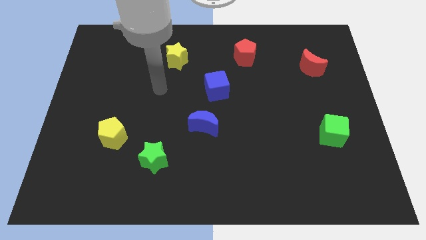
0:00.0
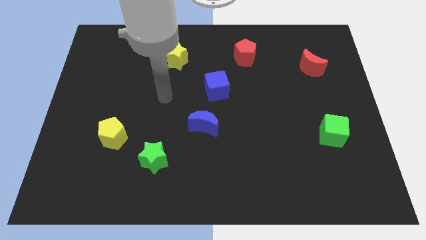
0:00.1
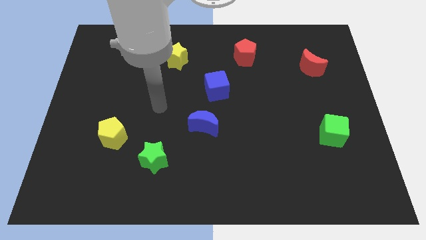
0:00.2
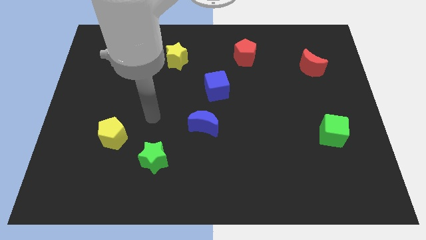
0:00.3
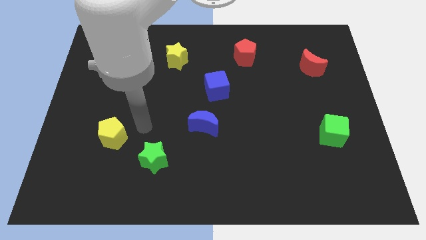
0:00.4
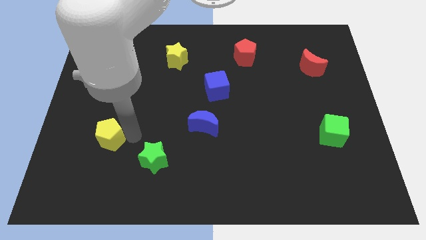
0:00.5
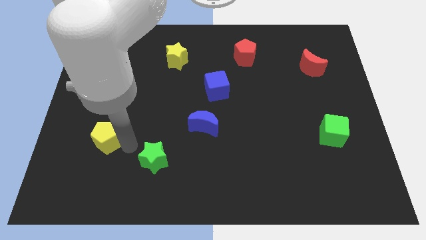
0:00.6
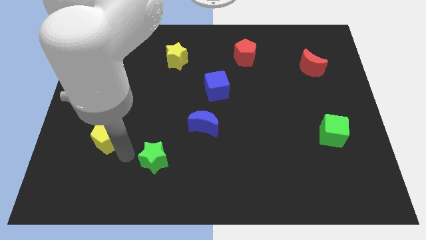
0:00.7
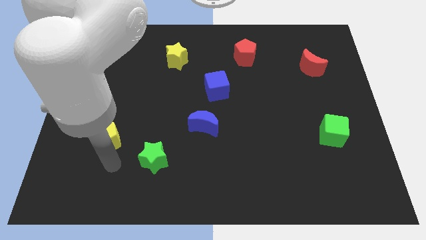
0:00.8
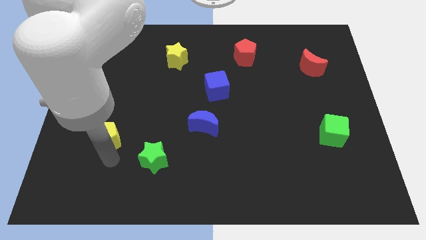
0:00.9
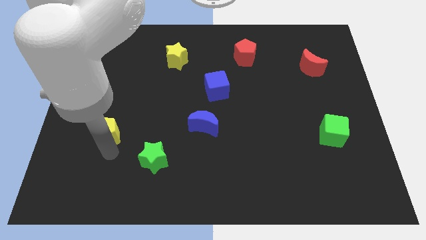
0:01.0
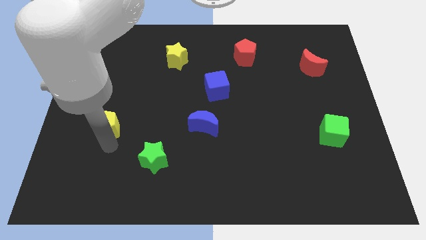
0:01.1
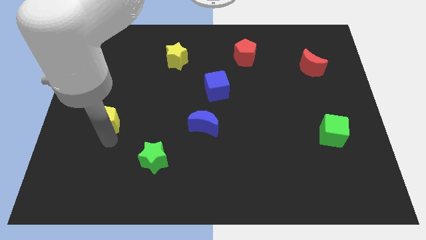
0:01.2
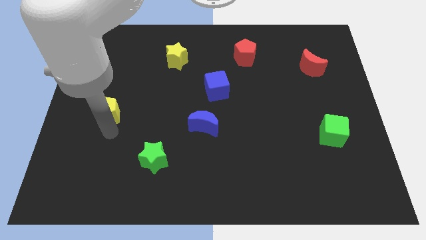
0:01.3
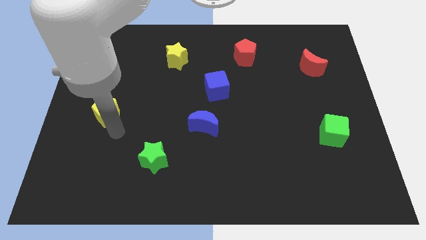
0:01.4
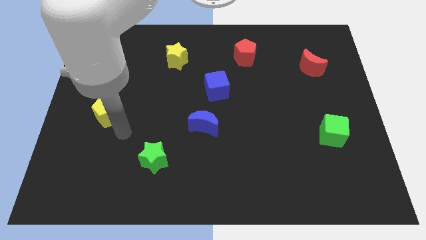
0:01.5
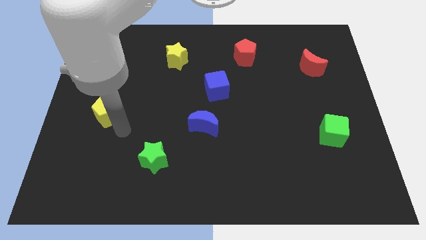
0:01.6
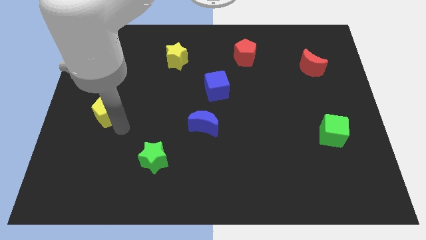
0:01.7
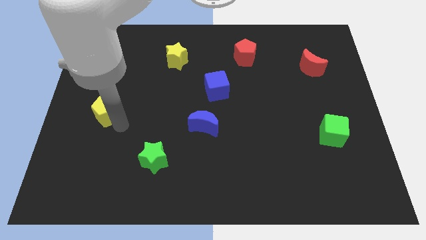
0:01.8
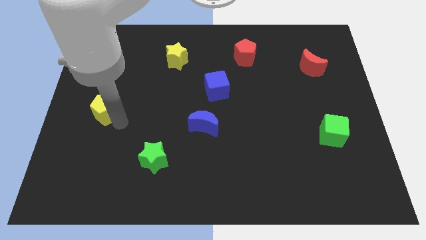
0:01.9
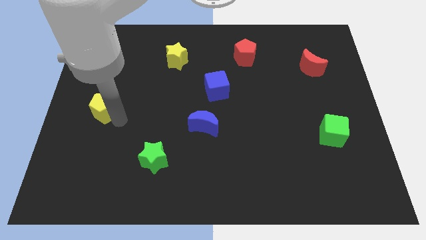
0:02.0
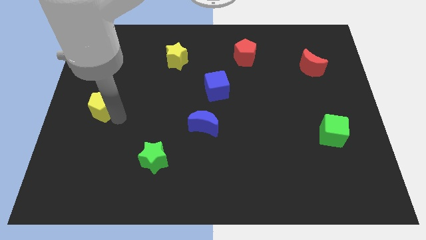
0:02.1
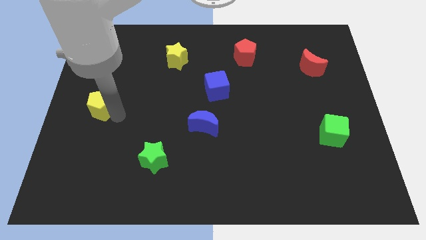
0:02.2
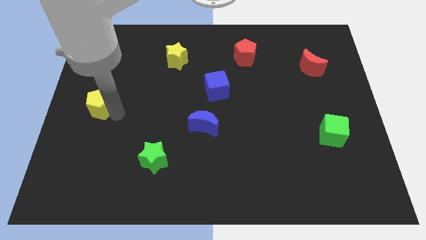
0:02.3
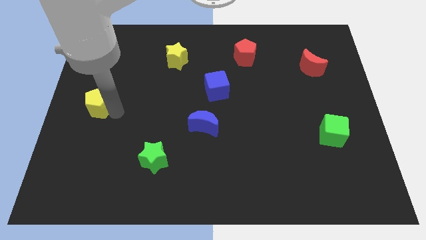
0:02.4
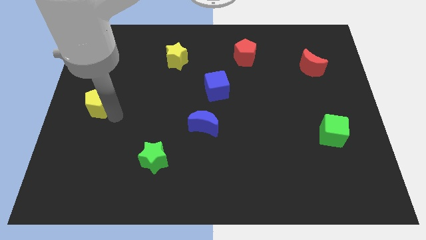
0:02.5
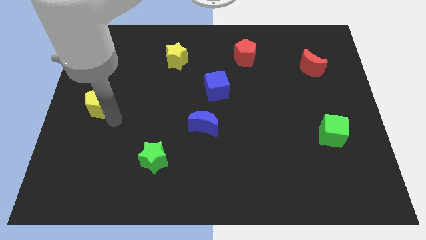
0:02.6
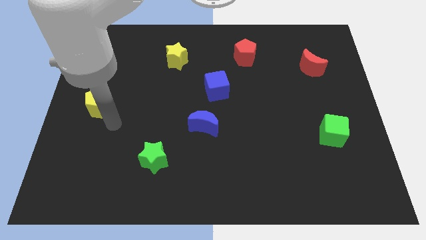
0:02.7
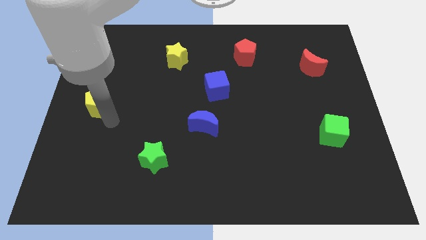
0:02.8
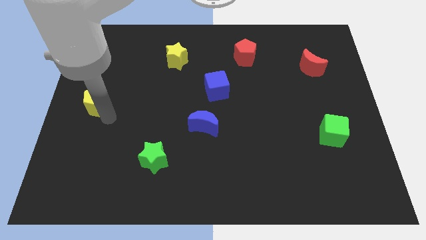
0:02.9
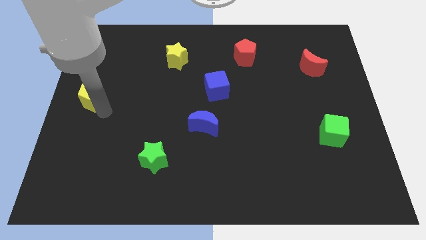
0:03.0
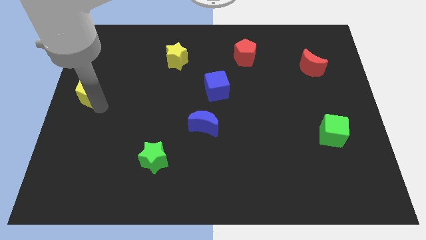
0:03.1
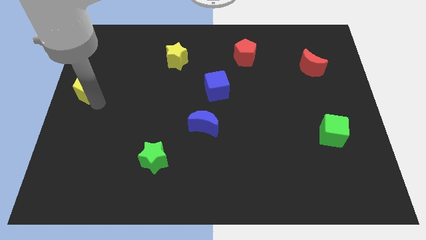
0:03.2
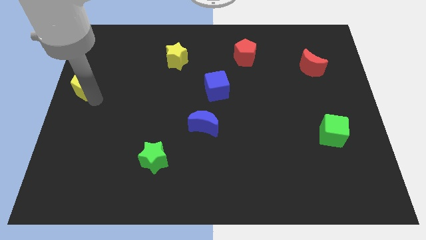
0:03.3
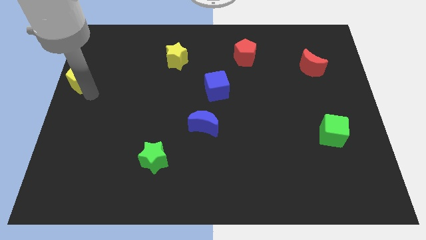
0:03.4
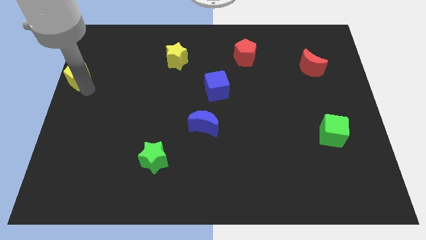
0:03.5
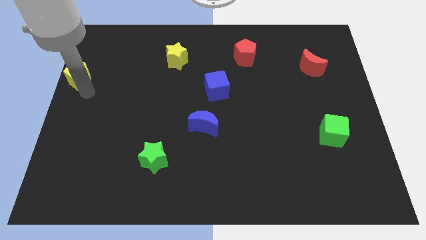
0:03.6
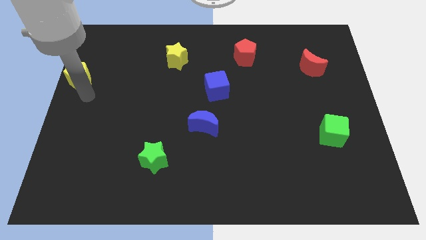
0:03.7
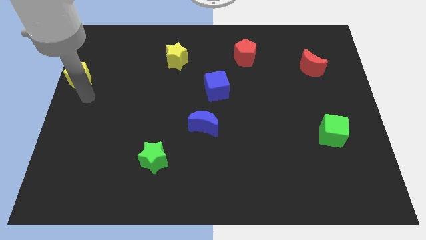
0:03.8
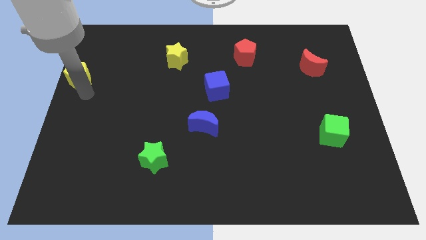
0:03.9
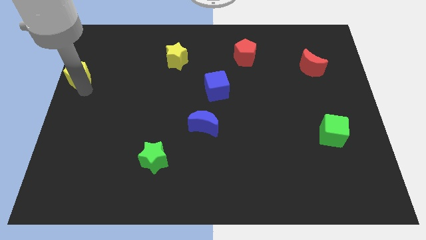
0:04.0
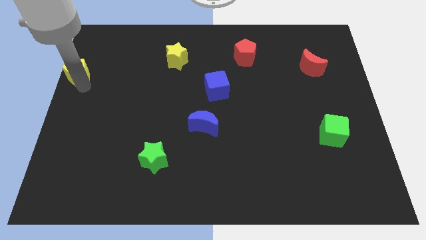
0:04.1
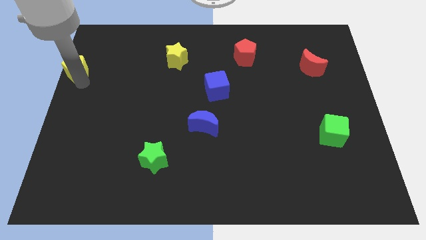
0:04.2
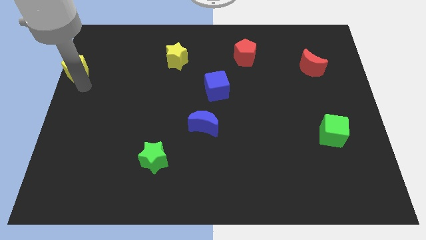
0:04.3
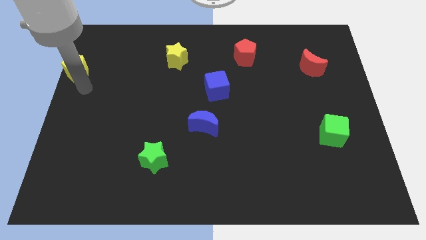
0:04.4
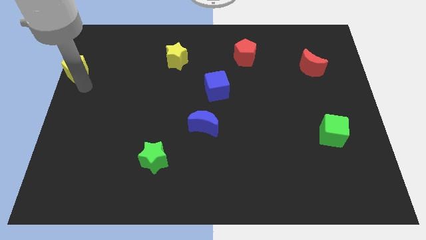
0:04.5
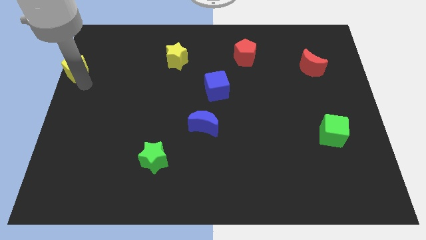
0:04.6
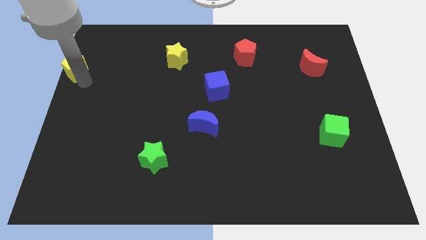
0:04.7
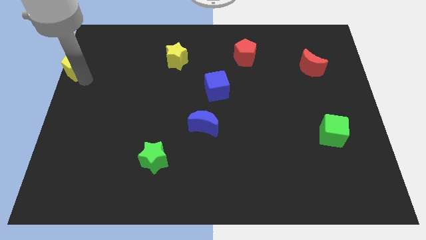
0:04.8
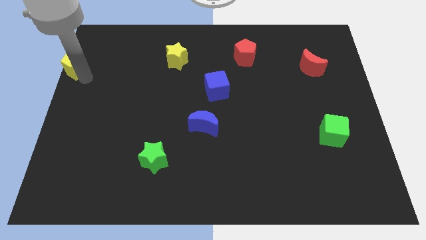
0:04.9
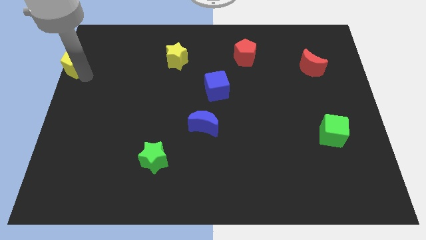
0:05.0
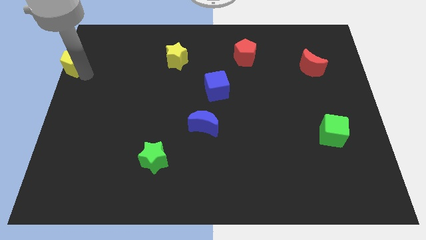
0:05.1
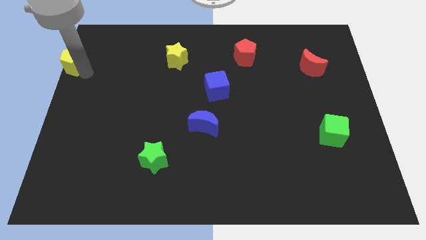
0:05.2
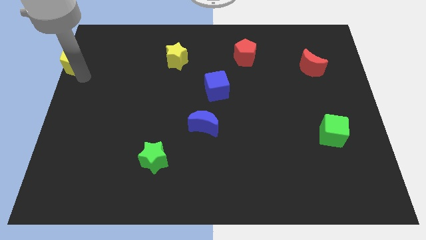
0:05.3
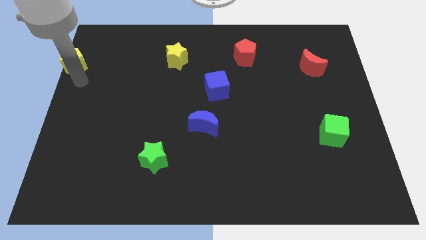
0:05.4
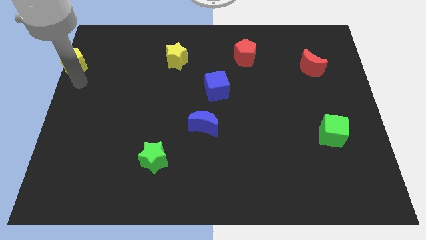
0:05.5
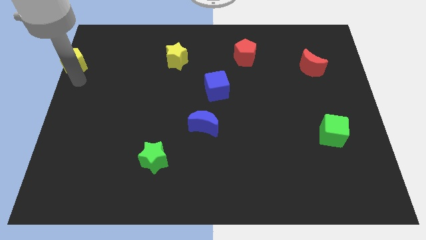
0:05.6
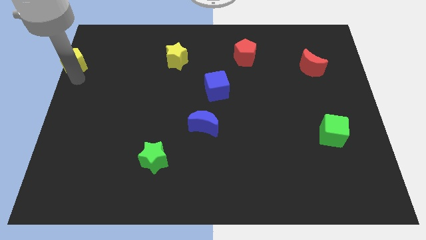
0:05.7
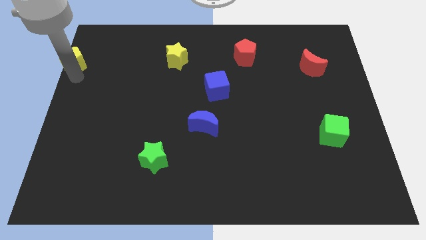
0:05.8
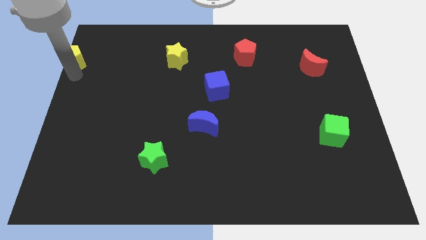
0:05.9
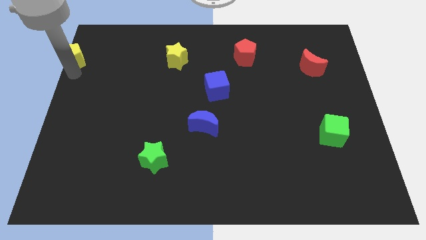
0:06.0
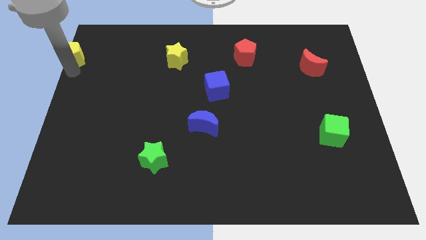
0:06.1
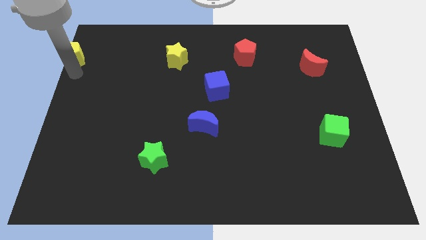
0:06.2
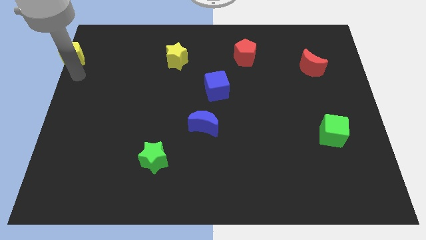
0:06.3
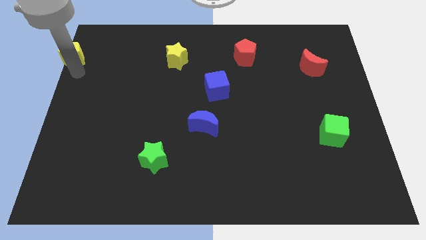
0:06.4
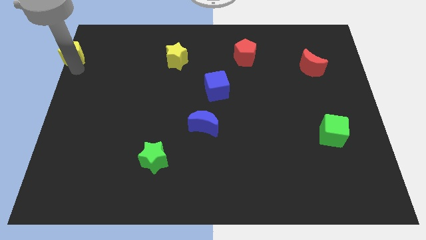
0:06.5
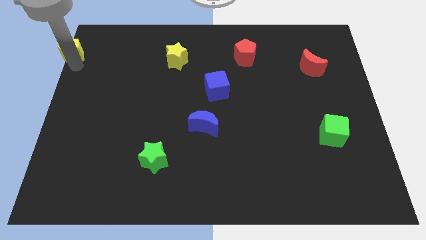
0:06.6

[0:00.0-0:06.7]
put the yellow pentagon to the top left of the board
